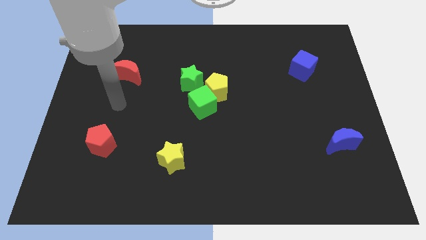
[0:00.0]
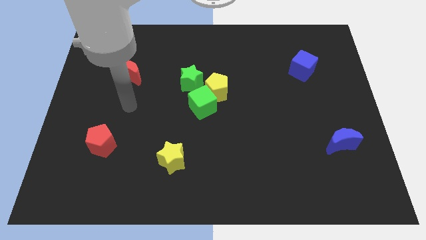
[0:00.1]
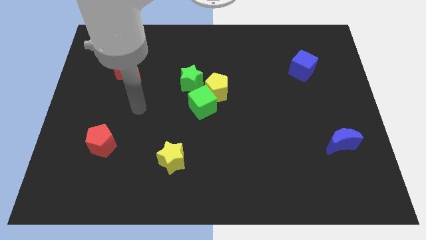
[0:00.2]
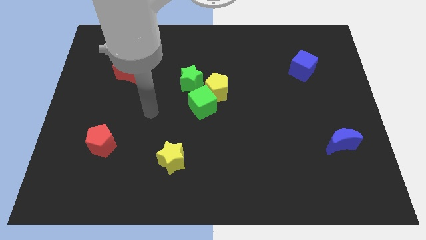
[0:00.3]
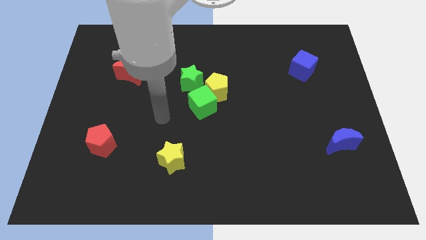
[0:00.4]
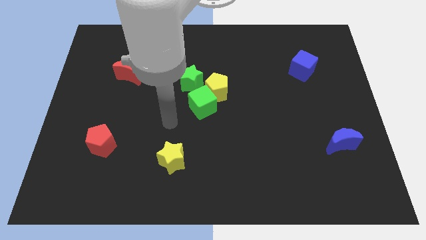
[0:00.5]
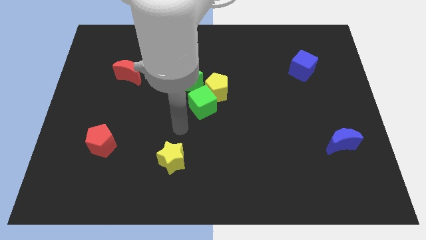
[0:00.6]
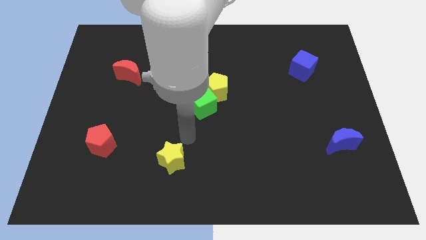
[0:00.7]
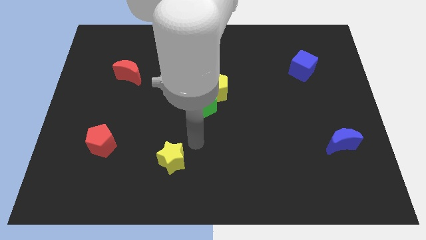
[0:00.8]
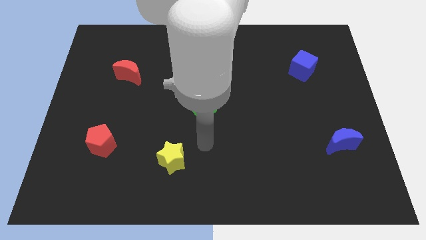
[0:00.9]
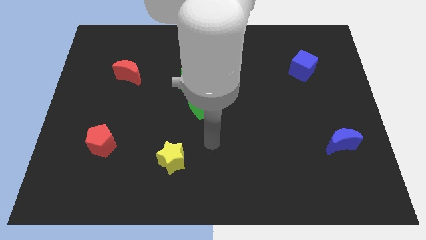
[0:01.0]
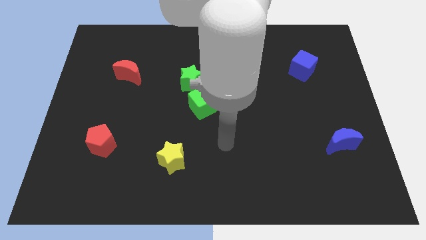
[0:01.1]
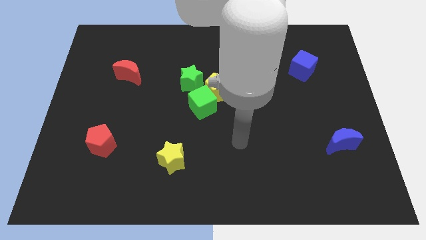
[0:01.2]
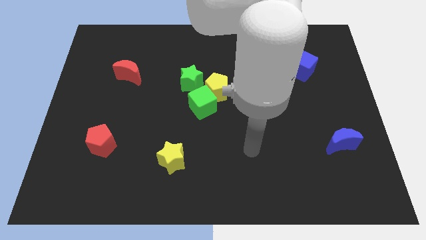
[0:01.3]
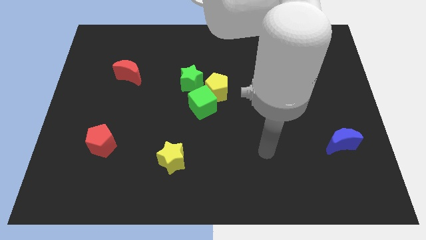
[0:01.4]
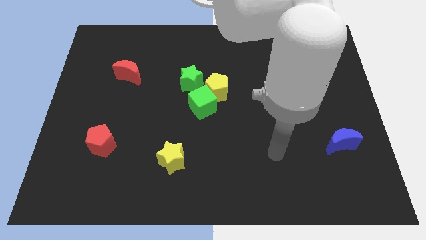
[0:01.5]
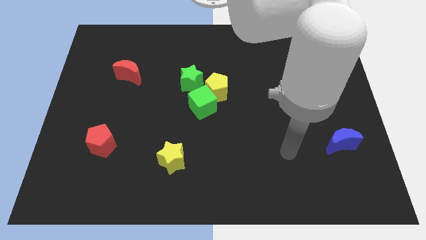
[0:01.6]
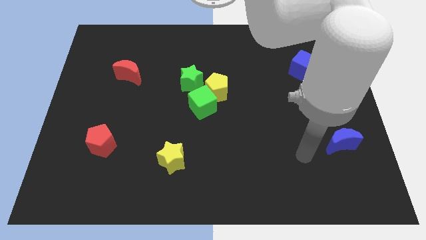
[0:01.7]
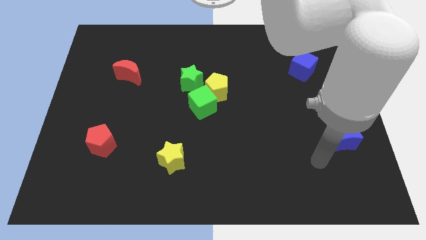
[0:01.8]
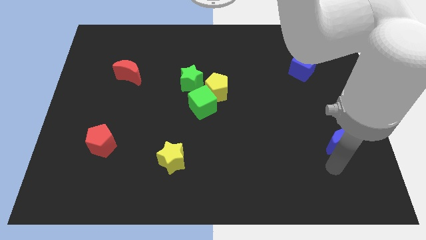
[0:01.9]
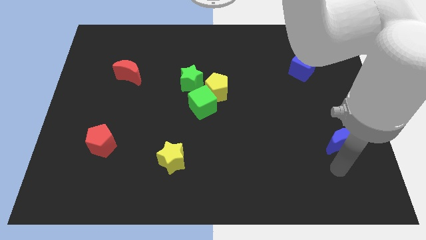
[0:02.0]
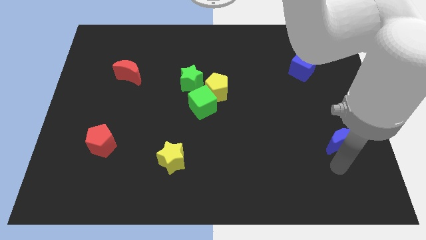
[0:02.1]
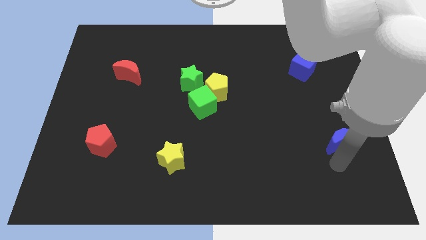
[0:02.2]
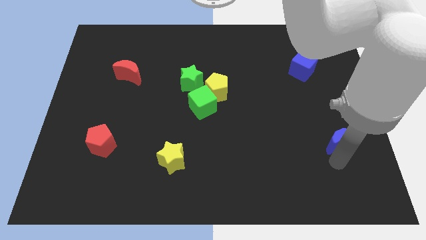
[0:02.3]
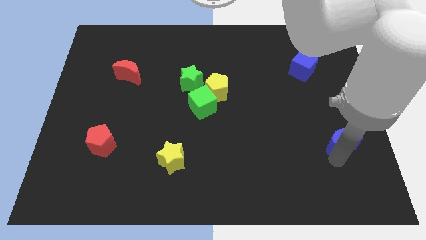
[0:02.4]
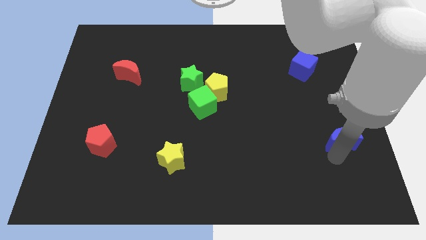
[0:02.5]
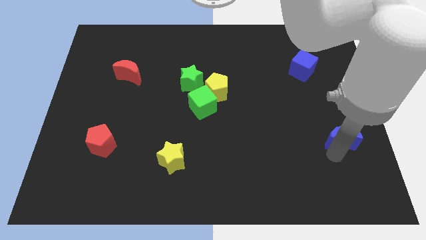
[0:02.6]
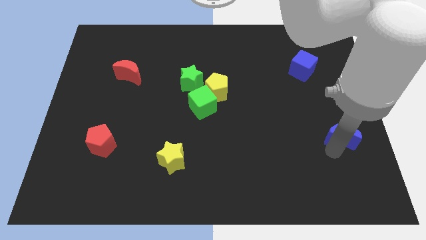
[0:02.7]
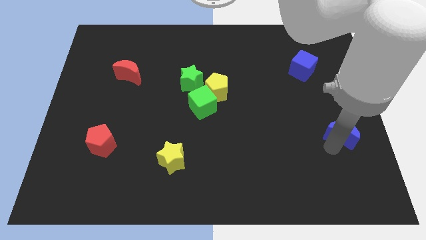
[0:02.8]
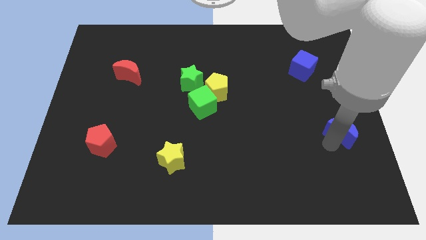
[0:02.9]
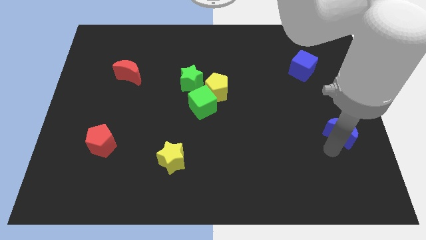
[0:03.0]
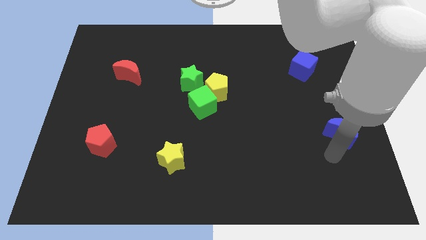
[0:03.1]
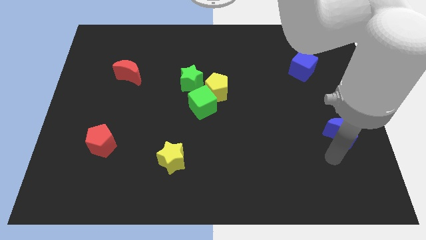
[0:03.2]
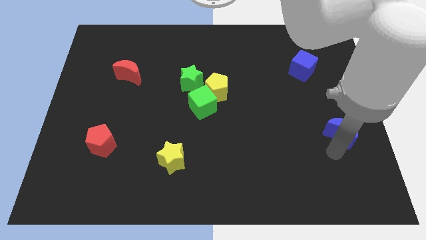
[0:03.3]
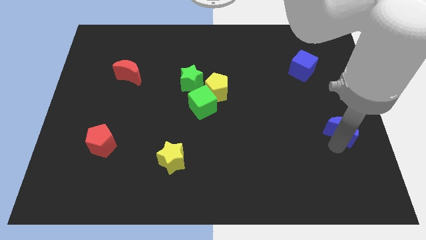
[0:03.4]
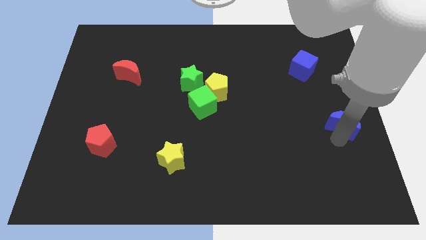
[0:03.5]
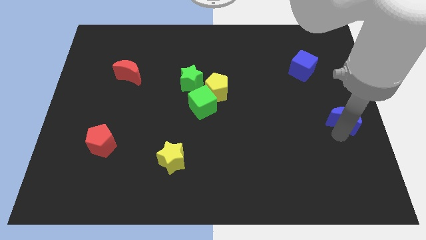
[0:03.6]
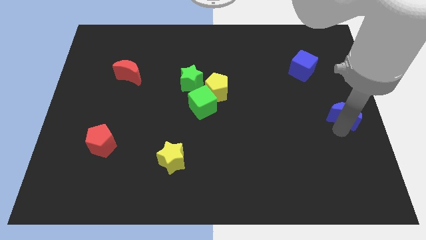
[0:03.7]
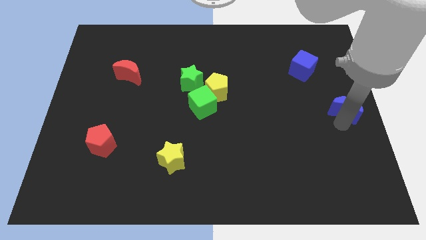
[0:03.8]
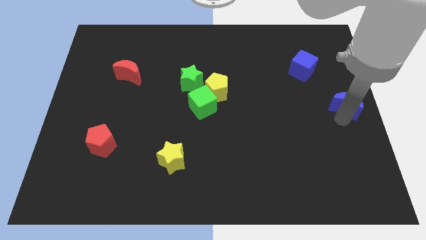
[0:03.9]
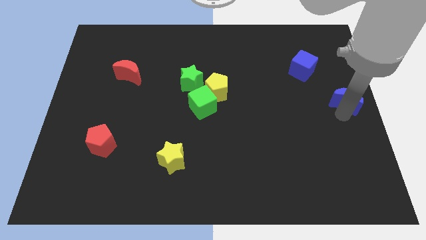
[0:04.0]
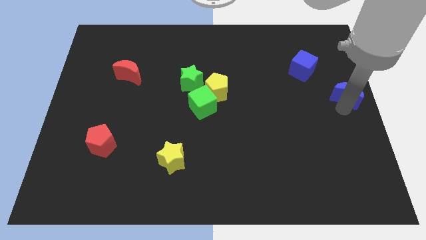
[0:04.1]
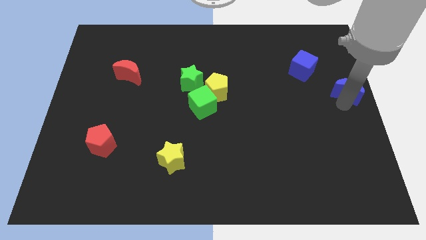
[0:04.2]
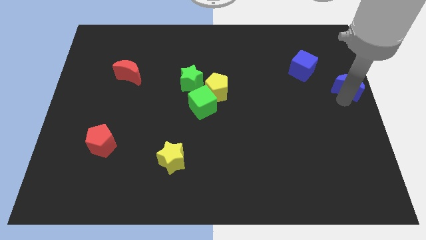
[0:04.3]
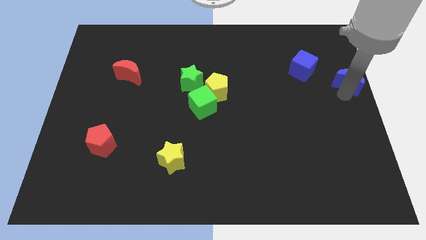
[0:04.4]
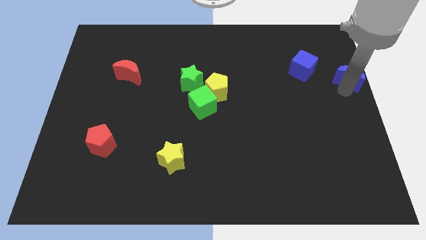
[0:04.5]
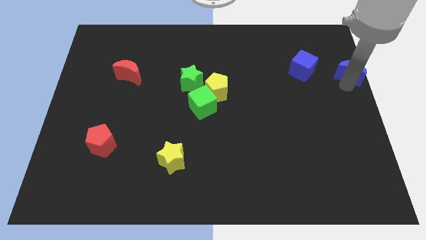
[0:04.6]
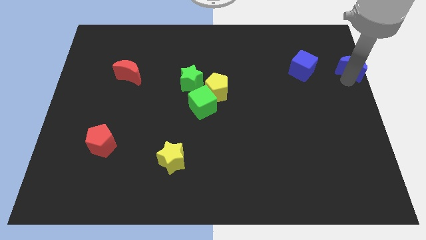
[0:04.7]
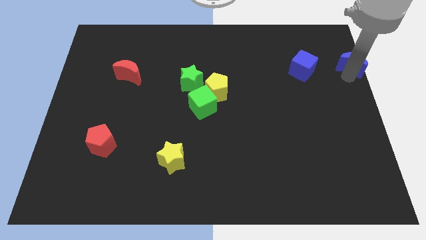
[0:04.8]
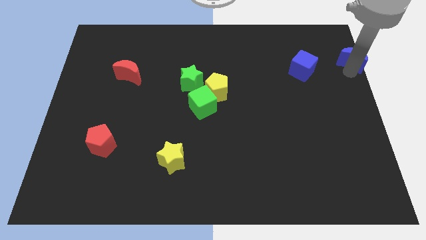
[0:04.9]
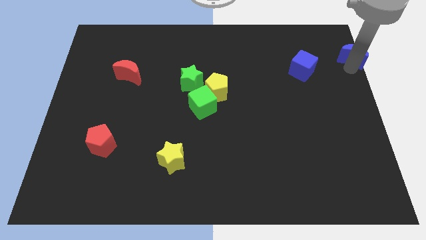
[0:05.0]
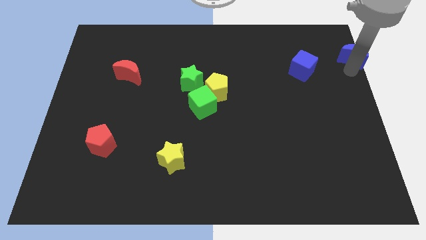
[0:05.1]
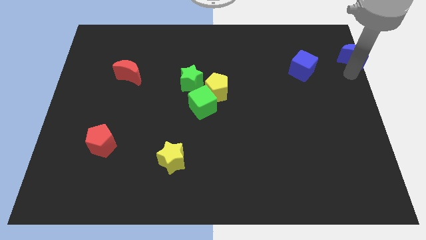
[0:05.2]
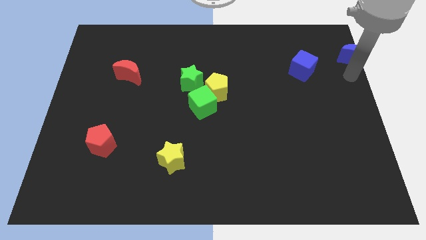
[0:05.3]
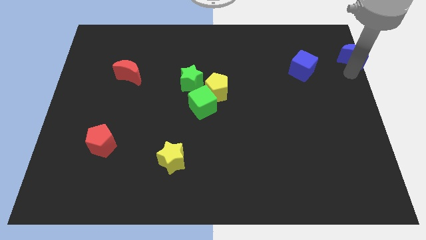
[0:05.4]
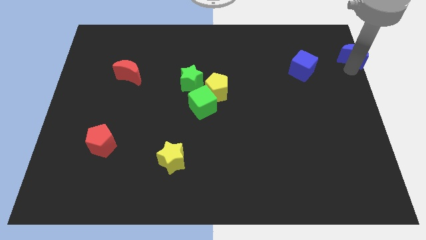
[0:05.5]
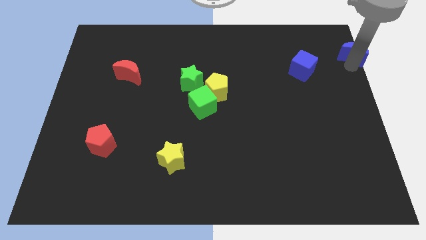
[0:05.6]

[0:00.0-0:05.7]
slide the blue moon to the top right corner
